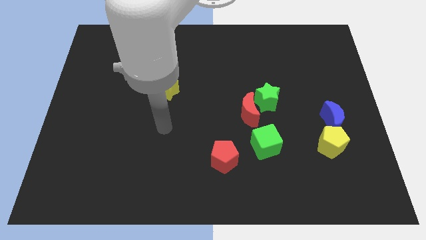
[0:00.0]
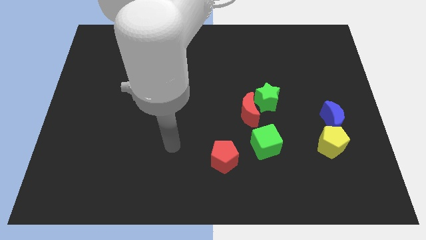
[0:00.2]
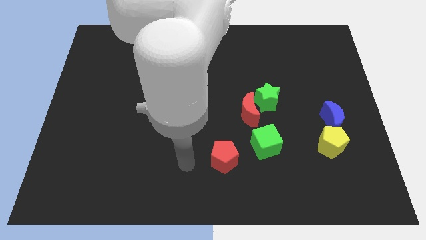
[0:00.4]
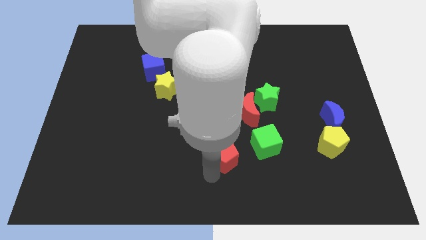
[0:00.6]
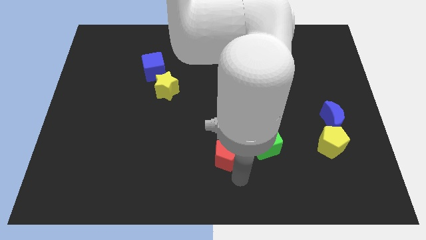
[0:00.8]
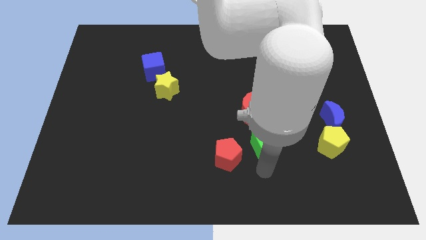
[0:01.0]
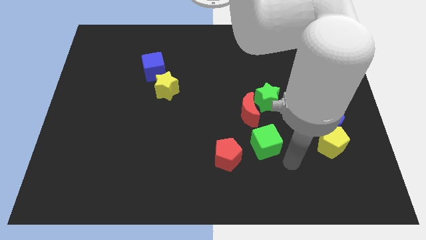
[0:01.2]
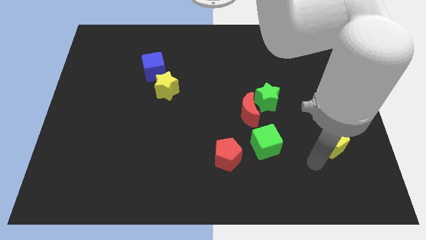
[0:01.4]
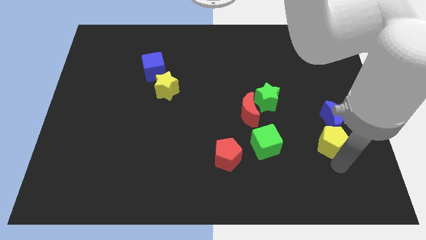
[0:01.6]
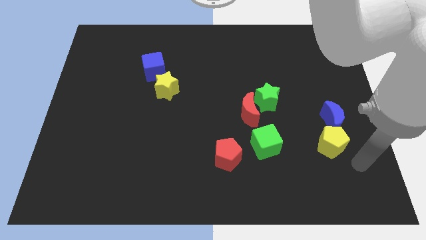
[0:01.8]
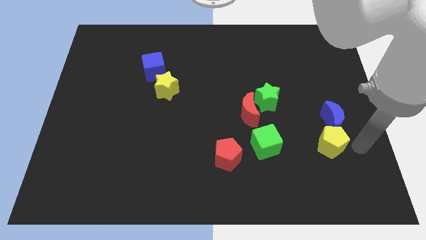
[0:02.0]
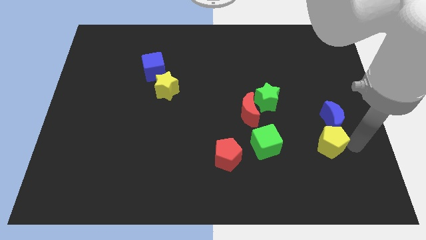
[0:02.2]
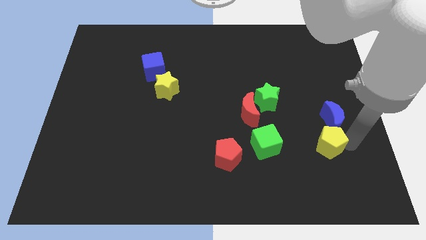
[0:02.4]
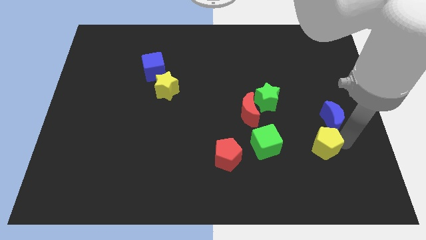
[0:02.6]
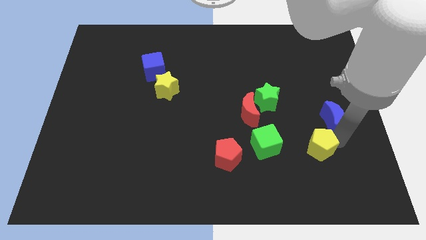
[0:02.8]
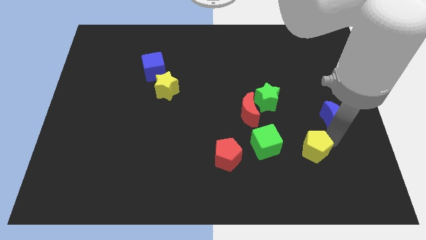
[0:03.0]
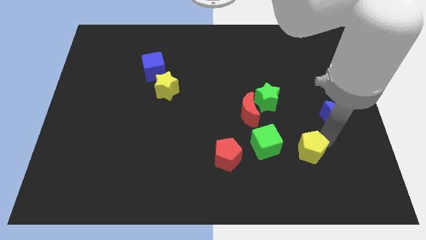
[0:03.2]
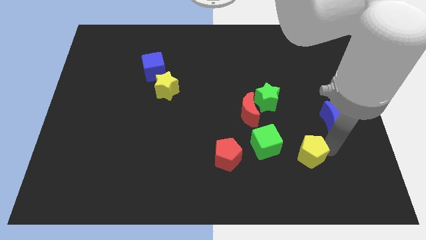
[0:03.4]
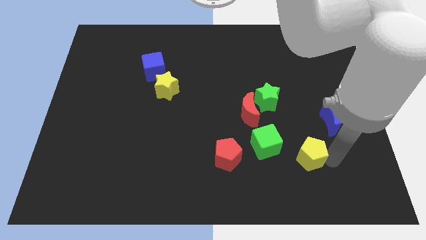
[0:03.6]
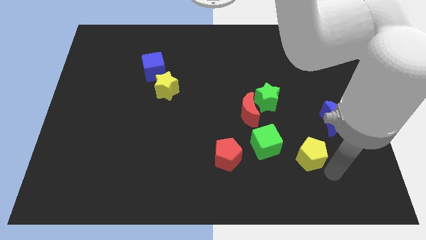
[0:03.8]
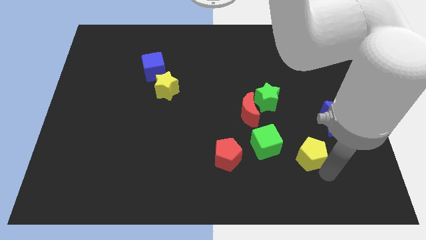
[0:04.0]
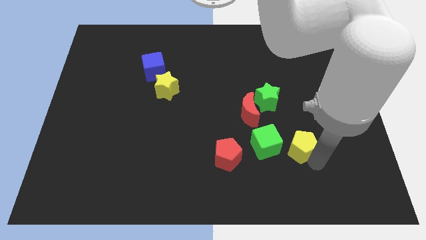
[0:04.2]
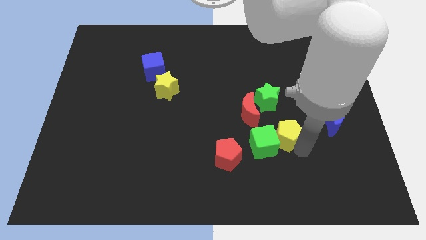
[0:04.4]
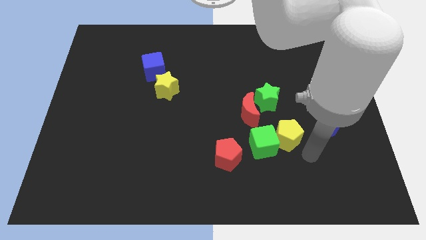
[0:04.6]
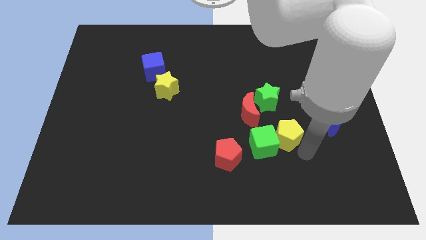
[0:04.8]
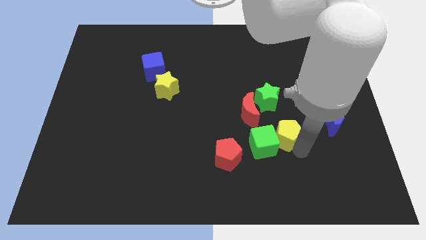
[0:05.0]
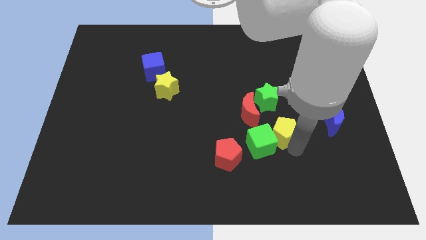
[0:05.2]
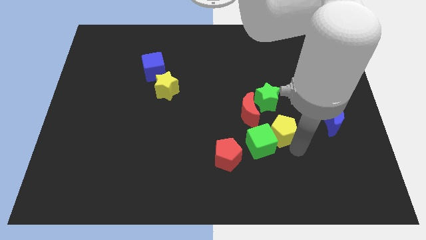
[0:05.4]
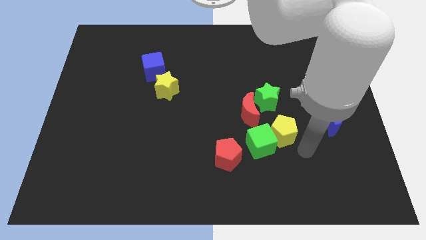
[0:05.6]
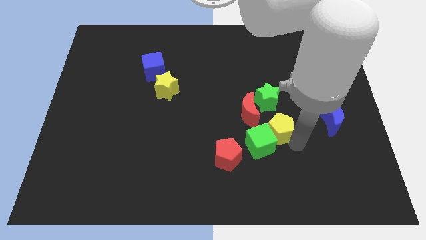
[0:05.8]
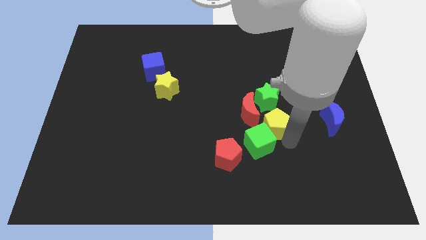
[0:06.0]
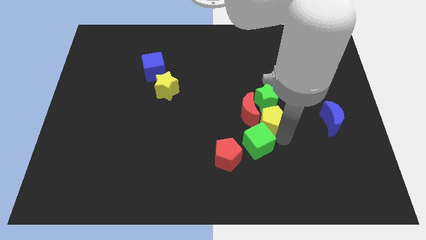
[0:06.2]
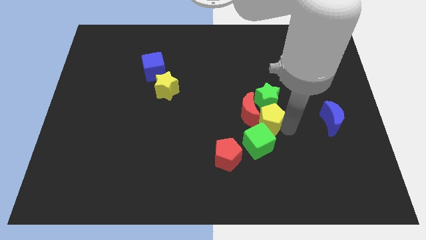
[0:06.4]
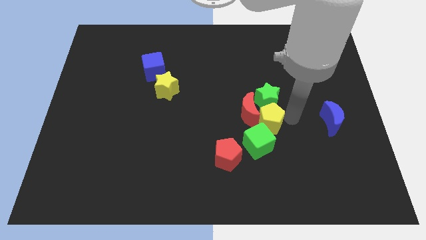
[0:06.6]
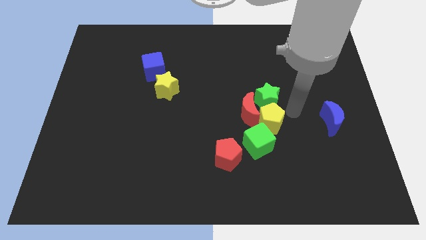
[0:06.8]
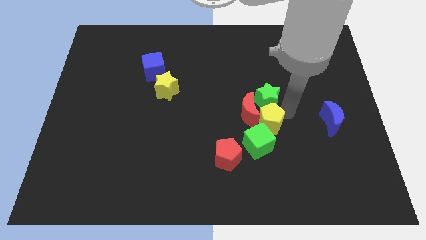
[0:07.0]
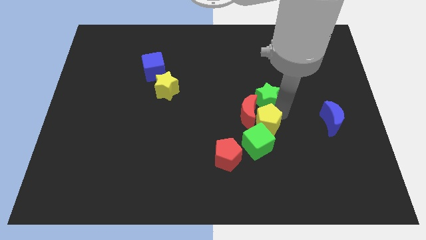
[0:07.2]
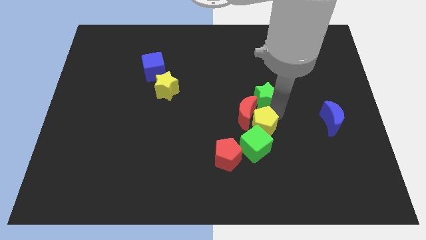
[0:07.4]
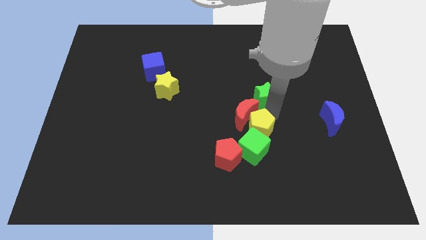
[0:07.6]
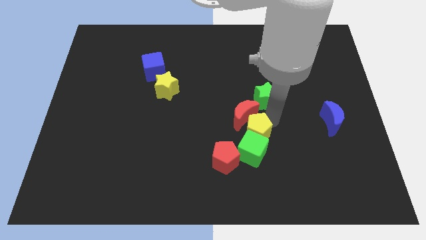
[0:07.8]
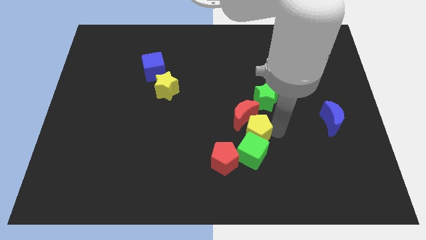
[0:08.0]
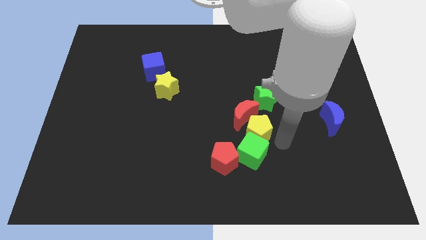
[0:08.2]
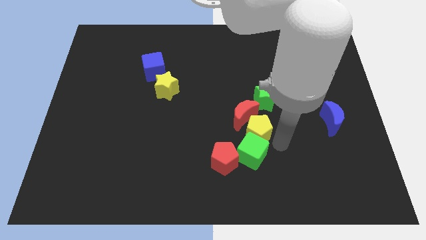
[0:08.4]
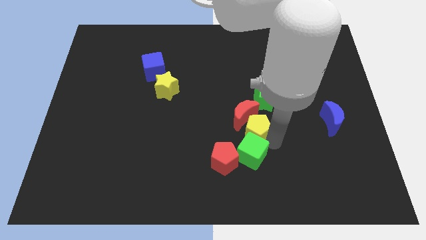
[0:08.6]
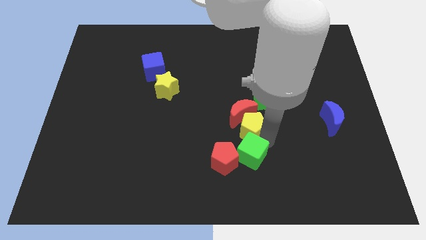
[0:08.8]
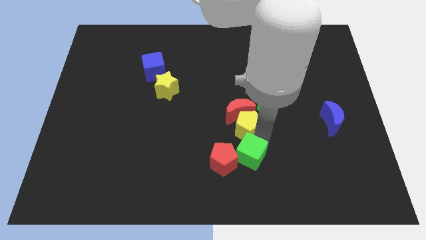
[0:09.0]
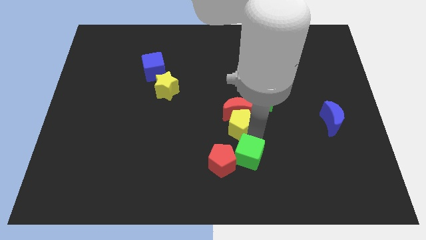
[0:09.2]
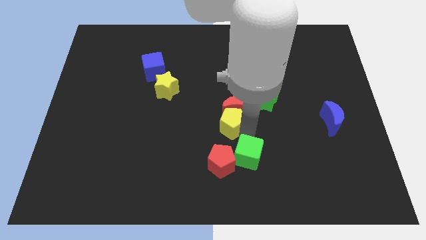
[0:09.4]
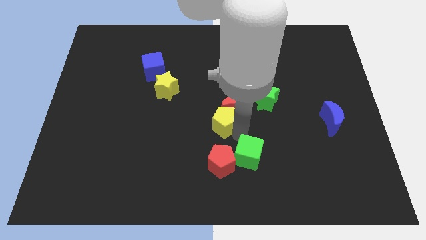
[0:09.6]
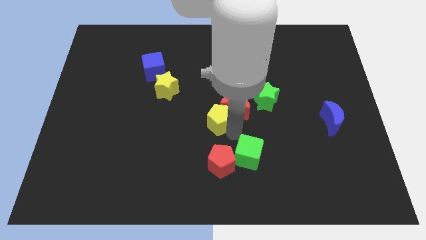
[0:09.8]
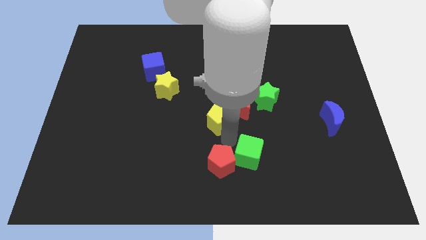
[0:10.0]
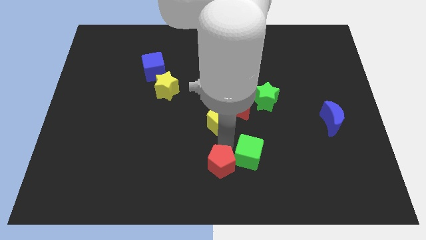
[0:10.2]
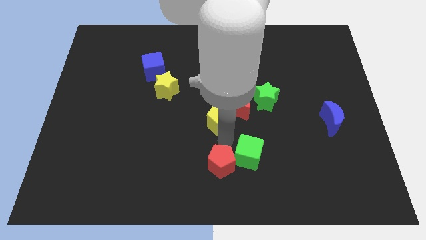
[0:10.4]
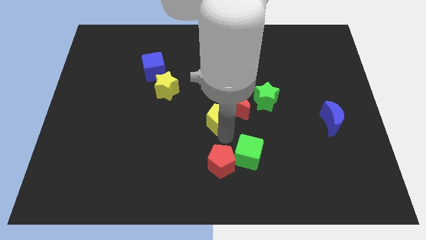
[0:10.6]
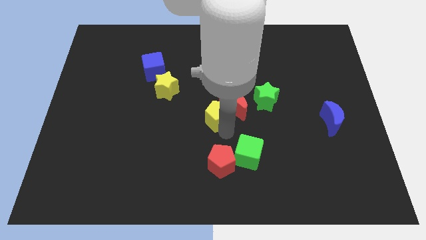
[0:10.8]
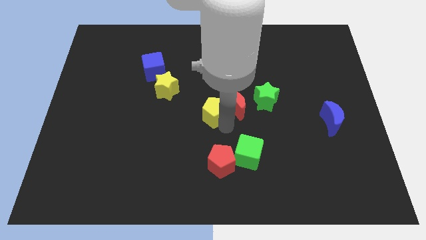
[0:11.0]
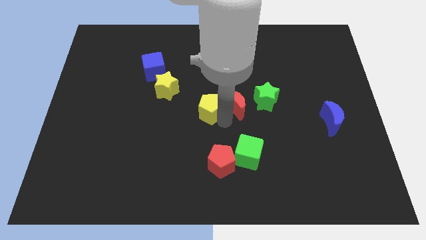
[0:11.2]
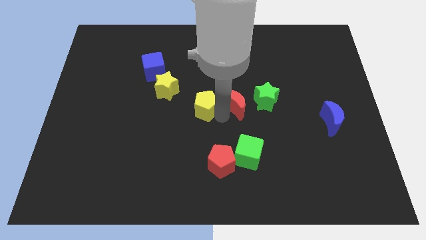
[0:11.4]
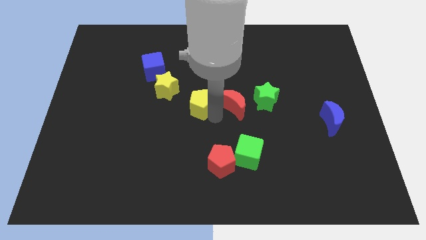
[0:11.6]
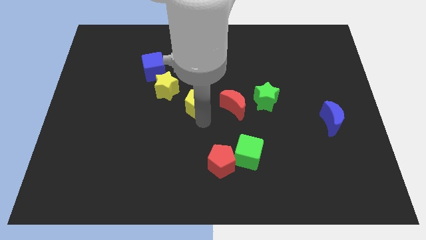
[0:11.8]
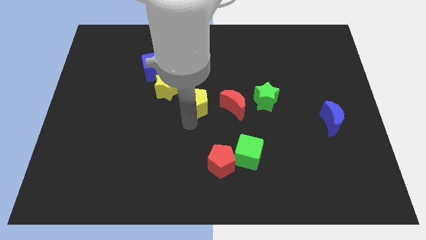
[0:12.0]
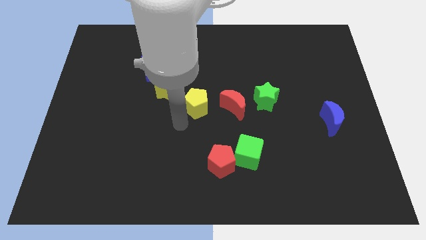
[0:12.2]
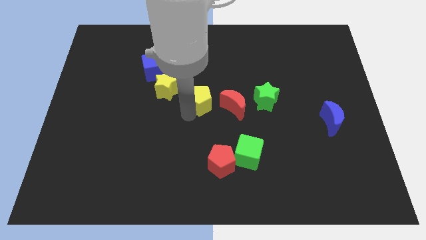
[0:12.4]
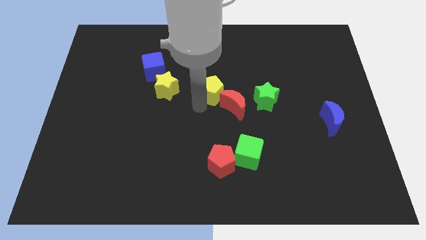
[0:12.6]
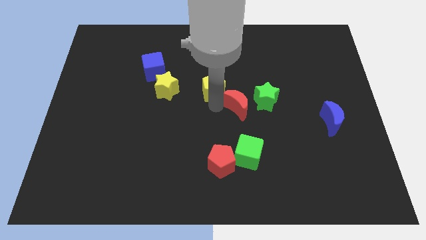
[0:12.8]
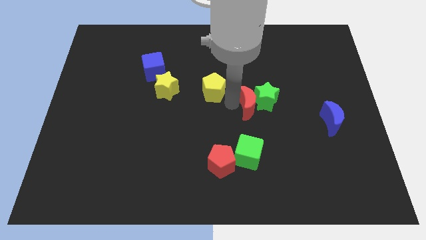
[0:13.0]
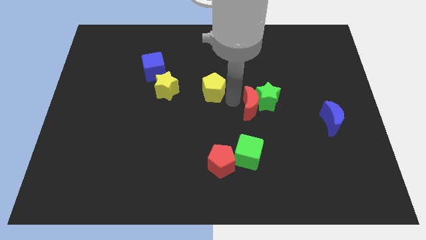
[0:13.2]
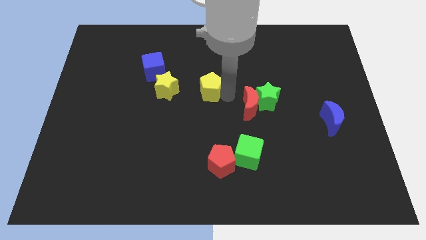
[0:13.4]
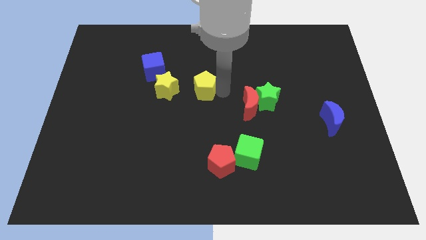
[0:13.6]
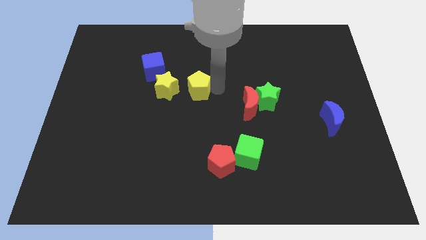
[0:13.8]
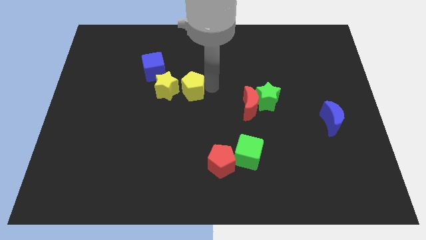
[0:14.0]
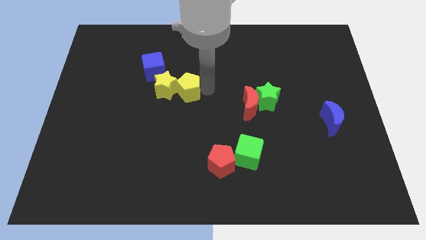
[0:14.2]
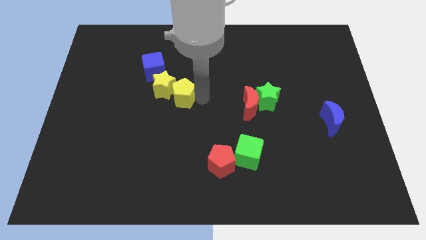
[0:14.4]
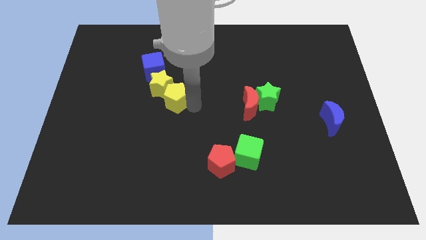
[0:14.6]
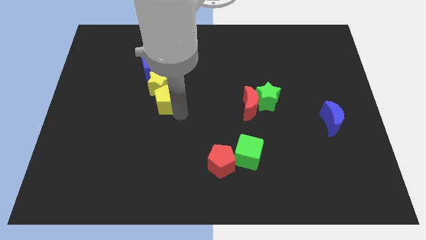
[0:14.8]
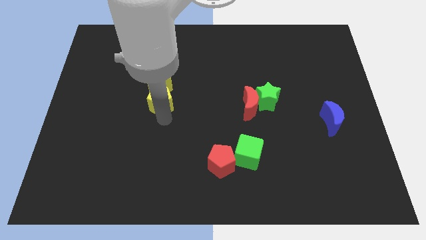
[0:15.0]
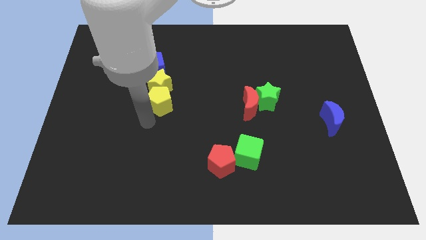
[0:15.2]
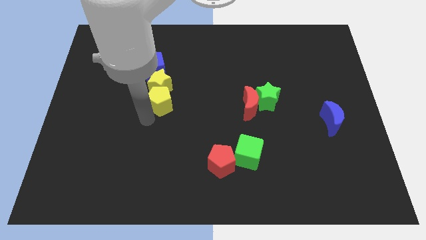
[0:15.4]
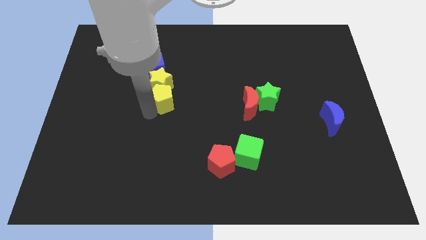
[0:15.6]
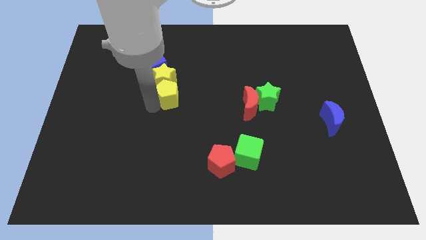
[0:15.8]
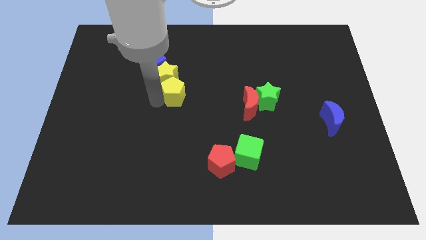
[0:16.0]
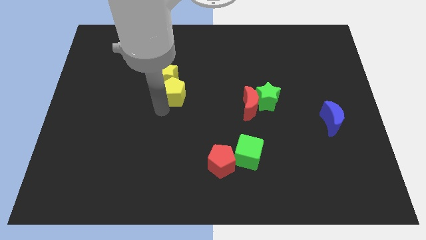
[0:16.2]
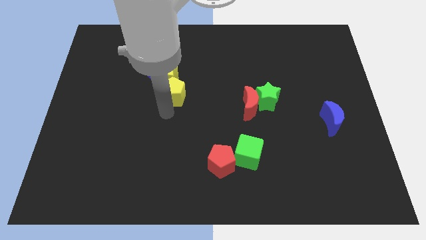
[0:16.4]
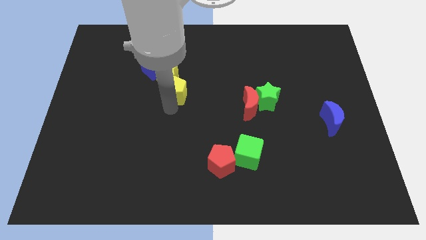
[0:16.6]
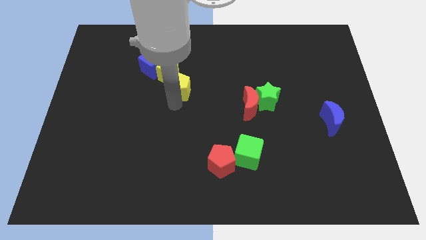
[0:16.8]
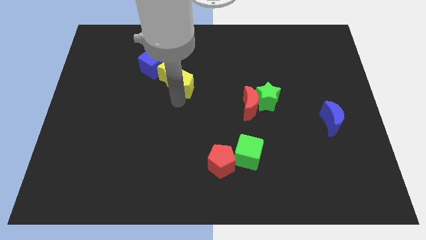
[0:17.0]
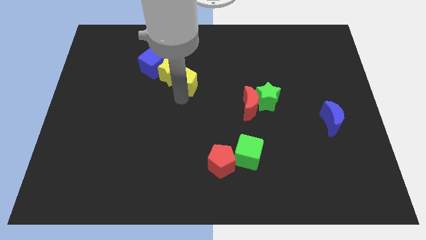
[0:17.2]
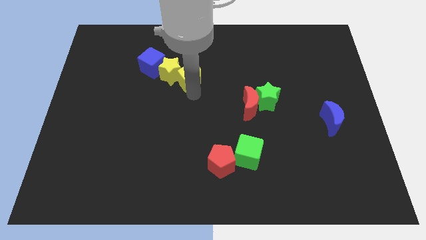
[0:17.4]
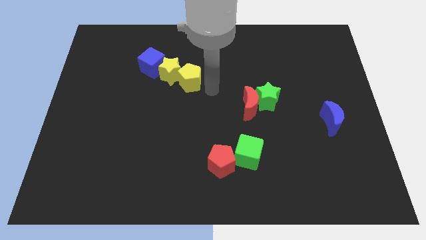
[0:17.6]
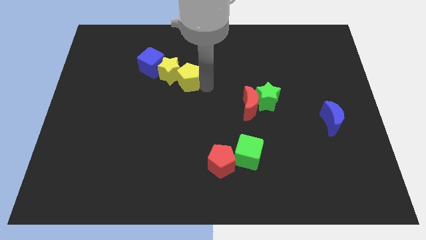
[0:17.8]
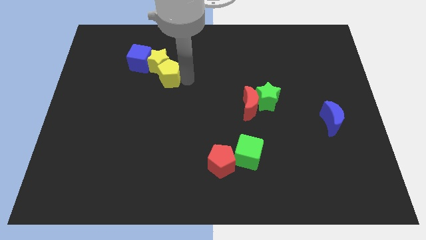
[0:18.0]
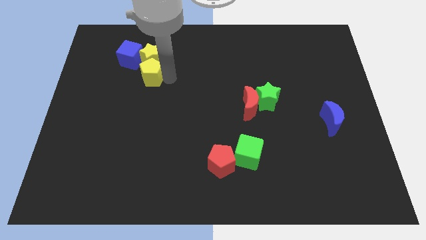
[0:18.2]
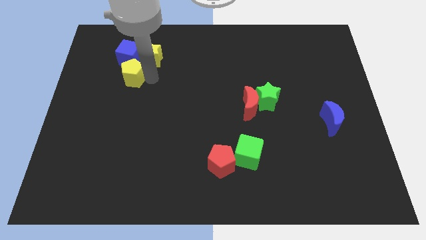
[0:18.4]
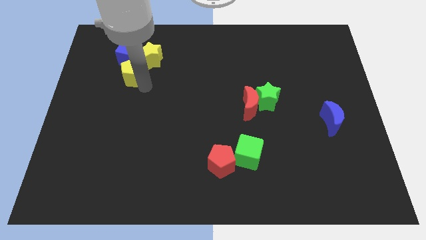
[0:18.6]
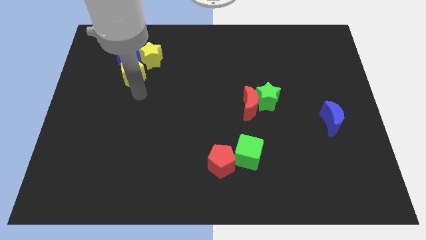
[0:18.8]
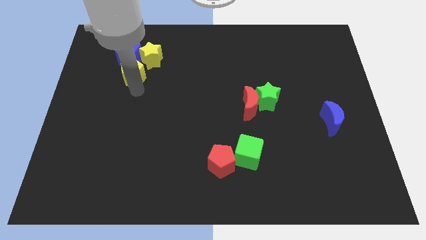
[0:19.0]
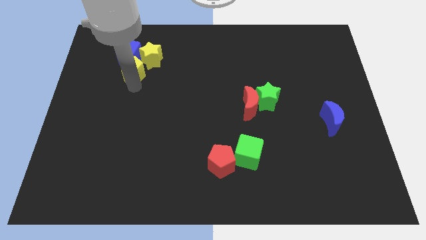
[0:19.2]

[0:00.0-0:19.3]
put the yellow pentagon to the blue cube
